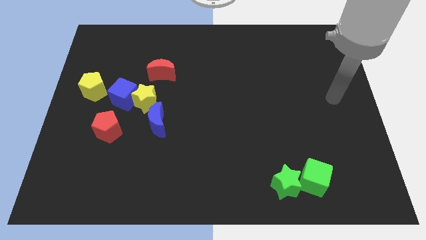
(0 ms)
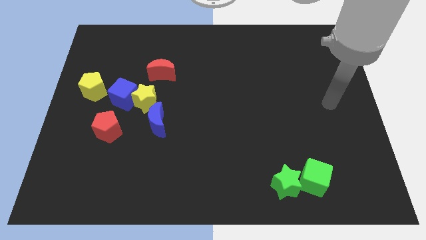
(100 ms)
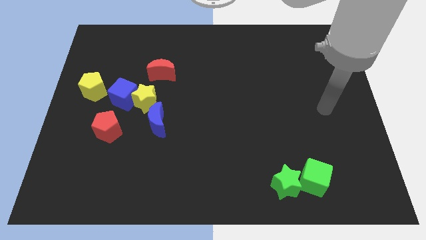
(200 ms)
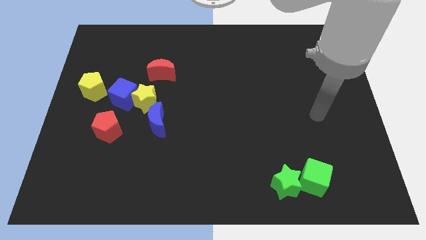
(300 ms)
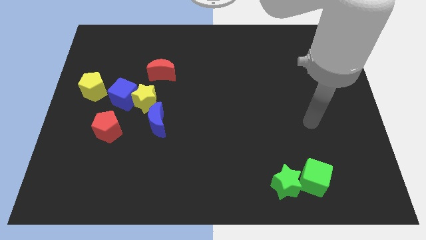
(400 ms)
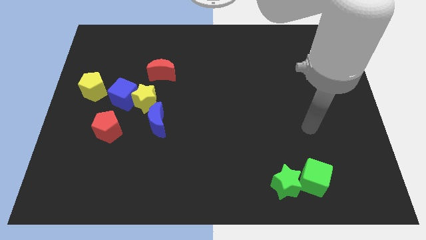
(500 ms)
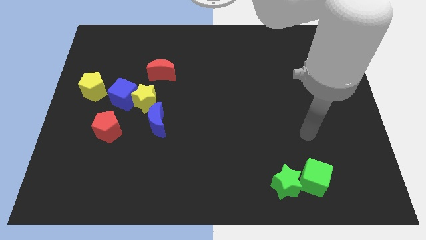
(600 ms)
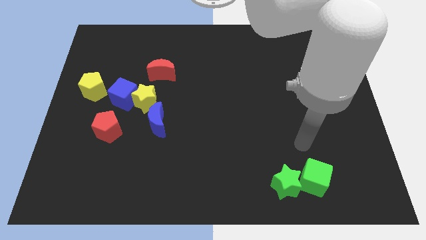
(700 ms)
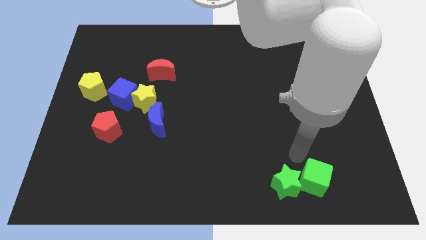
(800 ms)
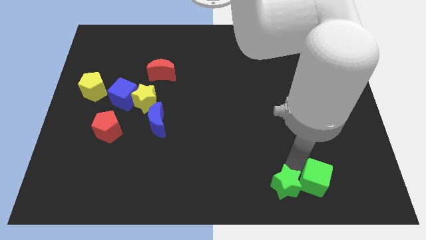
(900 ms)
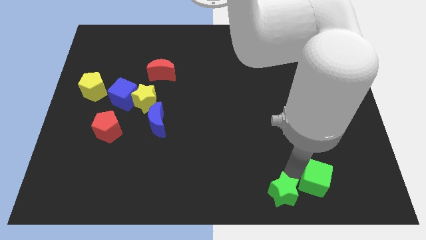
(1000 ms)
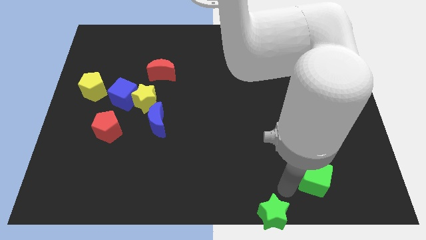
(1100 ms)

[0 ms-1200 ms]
move the green cube away from the green star

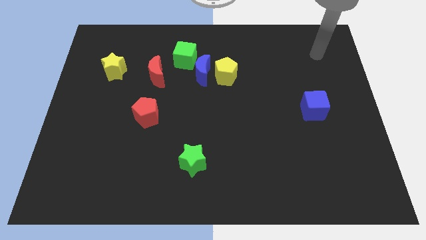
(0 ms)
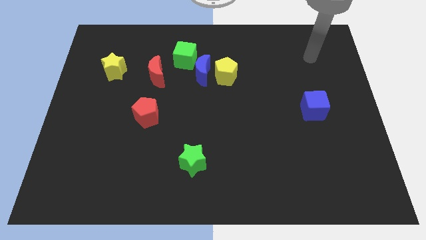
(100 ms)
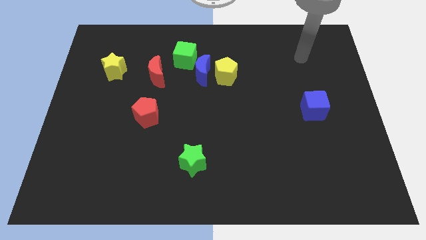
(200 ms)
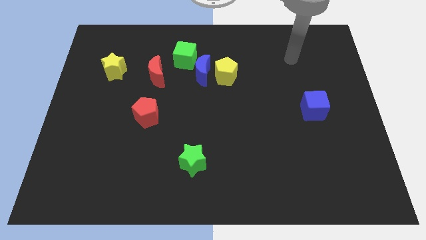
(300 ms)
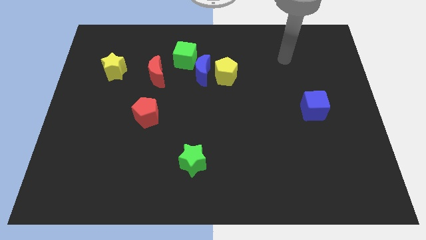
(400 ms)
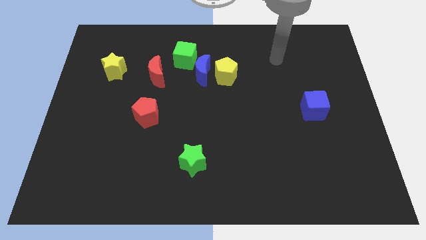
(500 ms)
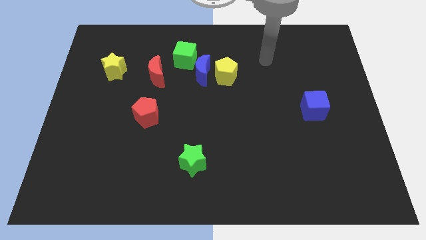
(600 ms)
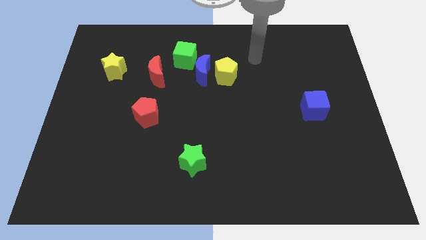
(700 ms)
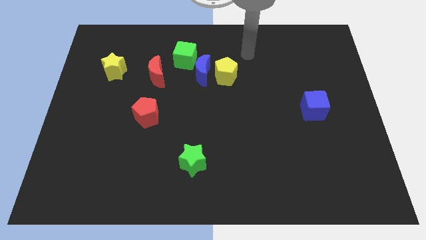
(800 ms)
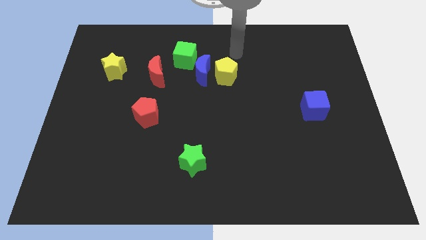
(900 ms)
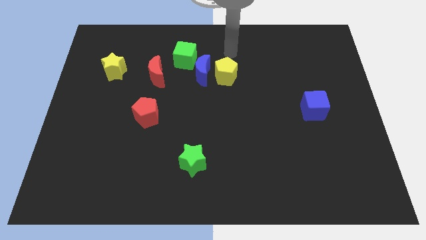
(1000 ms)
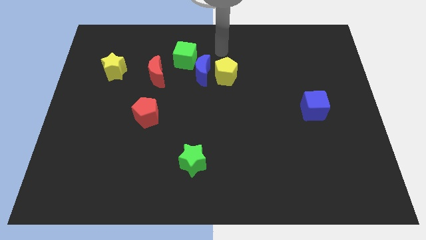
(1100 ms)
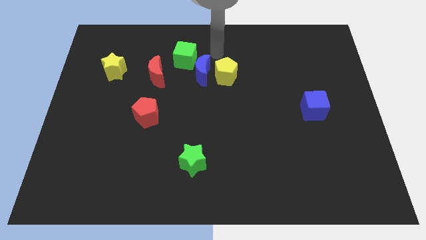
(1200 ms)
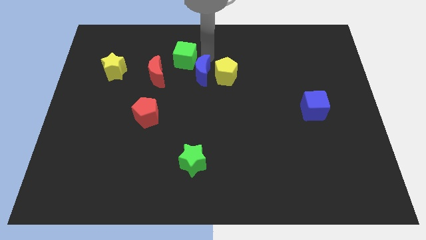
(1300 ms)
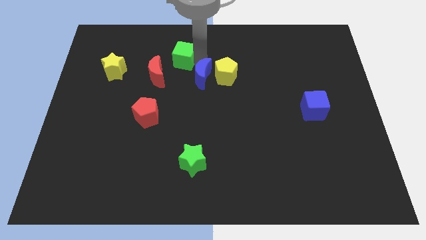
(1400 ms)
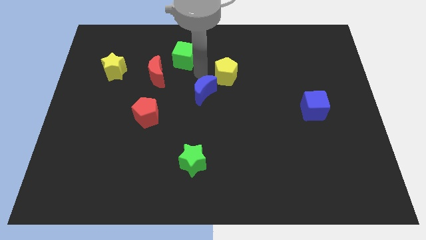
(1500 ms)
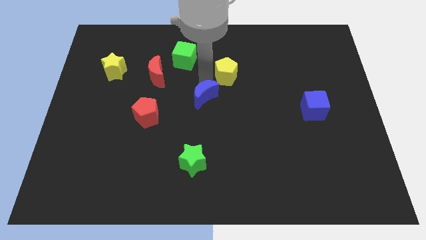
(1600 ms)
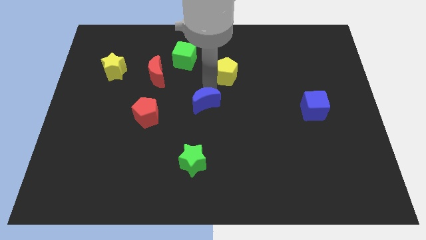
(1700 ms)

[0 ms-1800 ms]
separate the yellow pentagon from the blue moon

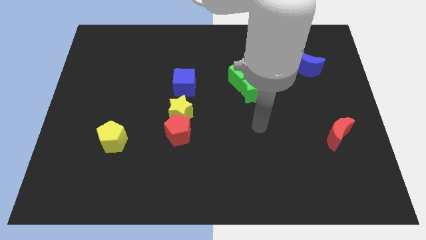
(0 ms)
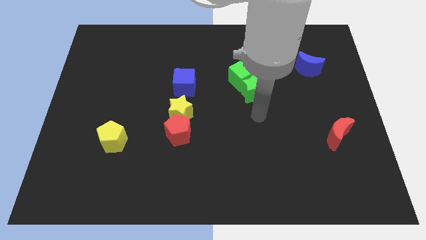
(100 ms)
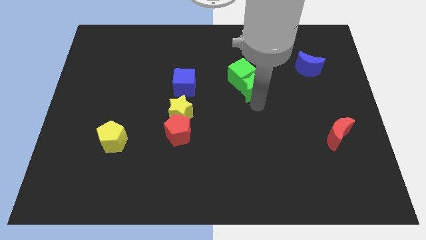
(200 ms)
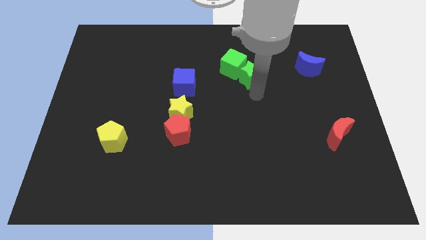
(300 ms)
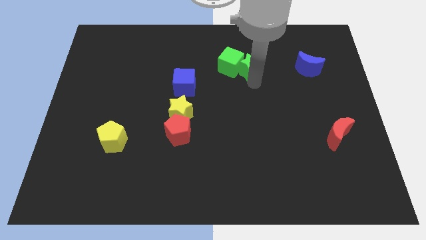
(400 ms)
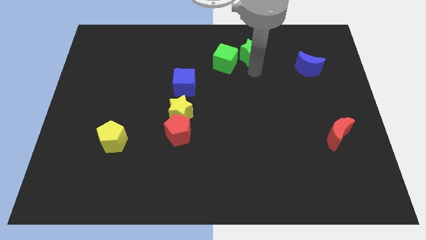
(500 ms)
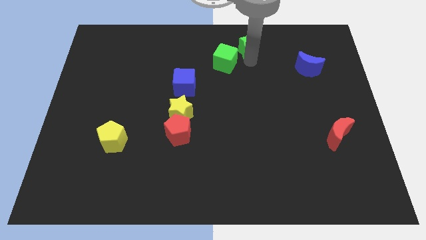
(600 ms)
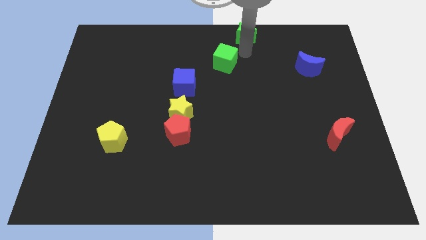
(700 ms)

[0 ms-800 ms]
separate the green cube from the green star

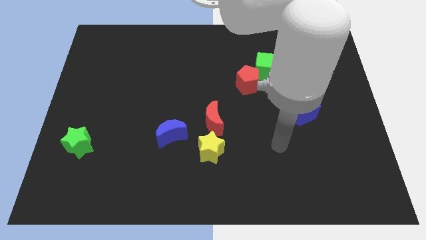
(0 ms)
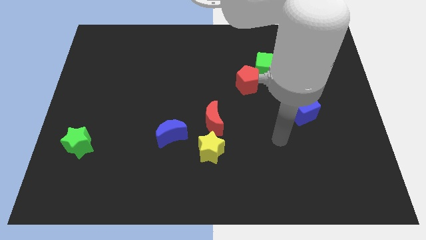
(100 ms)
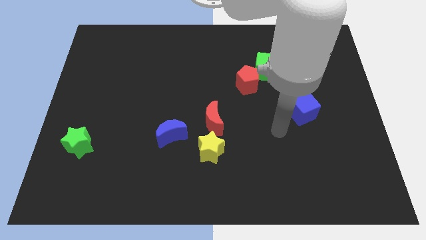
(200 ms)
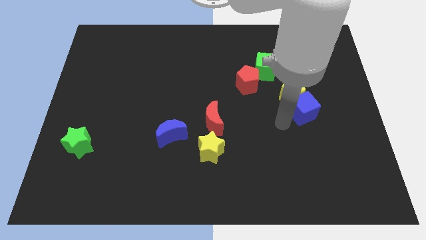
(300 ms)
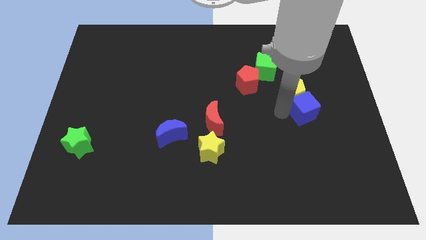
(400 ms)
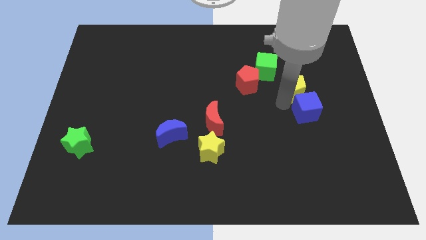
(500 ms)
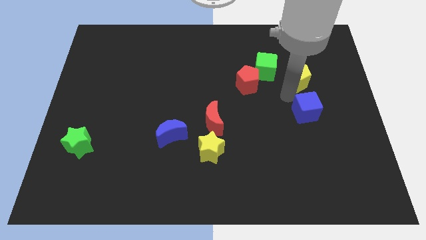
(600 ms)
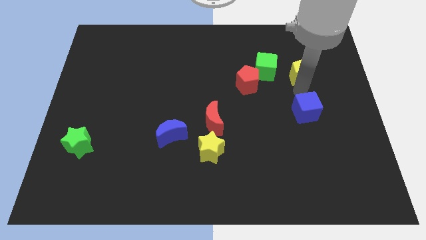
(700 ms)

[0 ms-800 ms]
separate the blue cube from the yellow pentagon

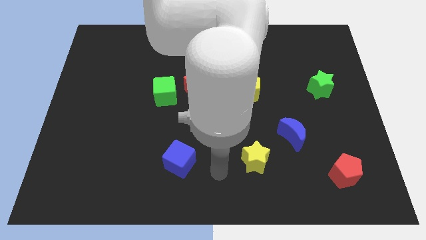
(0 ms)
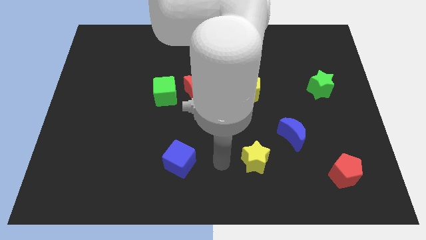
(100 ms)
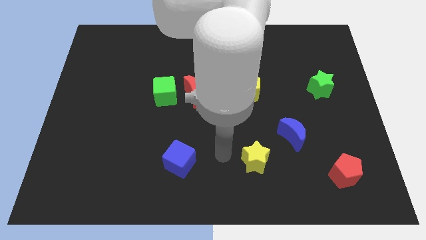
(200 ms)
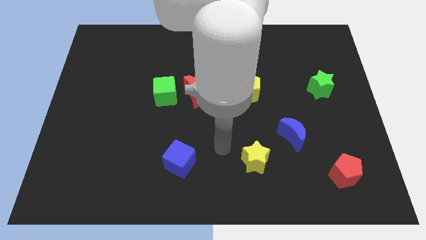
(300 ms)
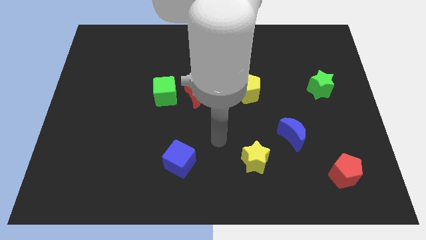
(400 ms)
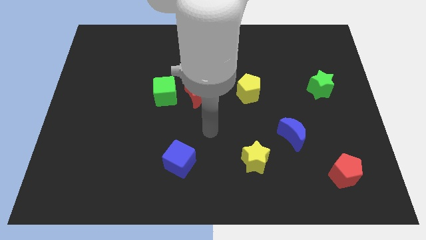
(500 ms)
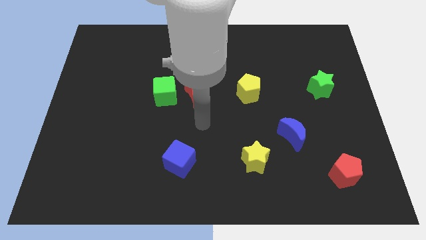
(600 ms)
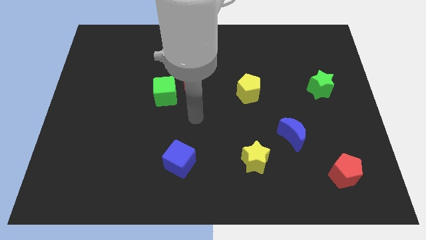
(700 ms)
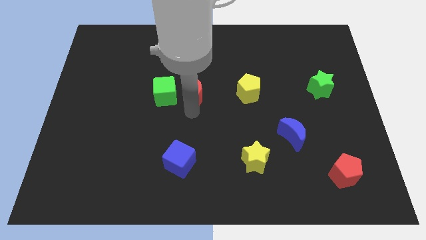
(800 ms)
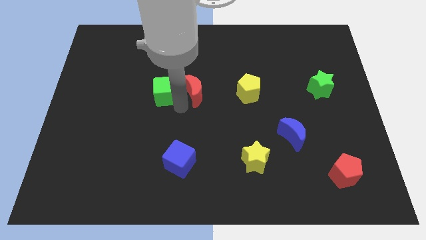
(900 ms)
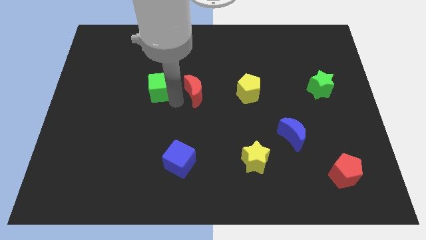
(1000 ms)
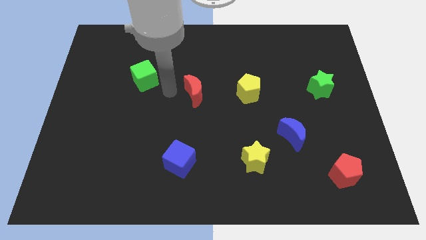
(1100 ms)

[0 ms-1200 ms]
separate the red moon from the green cube

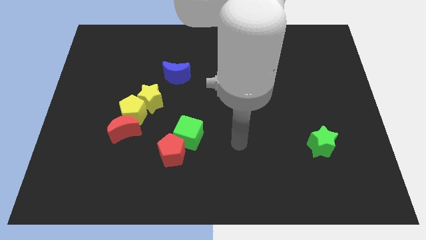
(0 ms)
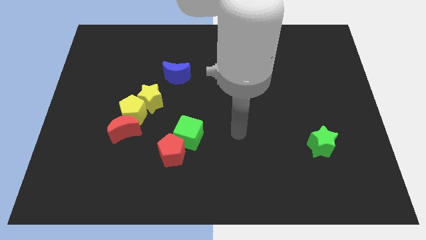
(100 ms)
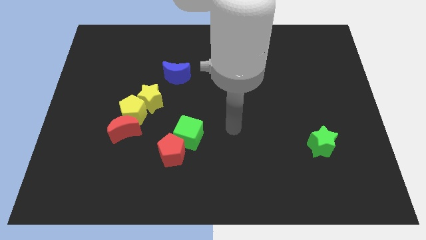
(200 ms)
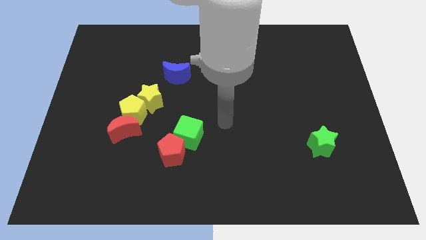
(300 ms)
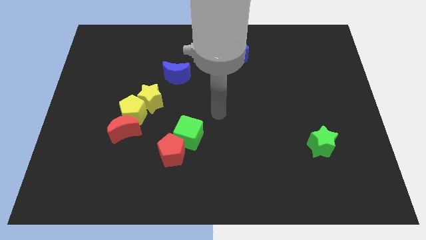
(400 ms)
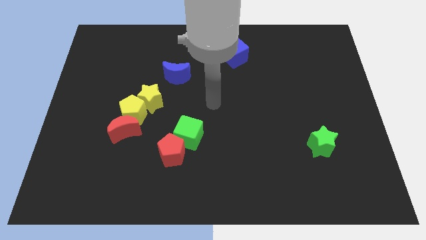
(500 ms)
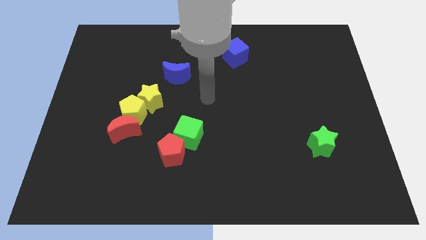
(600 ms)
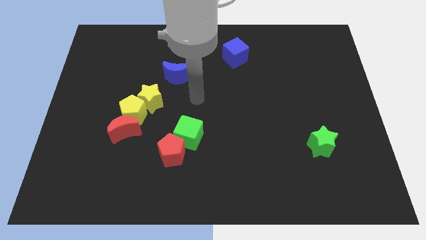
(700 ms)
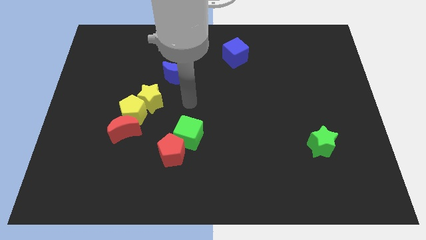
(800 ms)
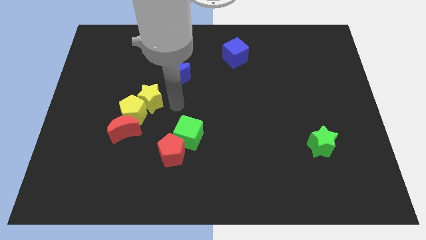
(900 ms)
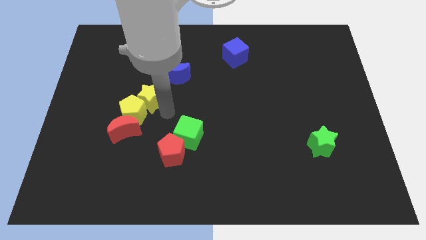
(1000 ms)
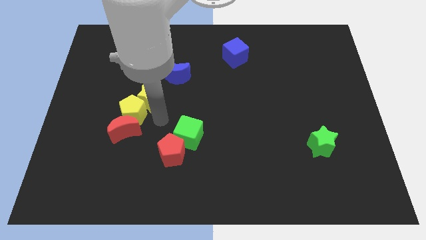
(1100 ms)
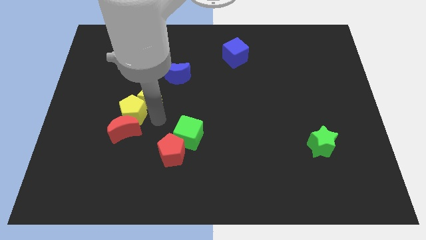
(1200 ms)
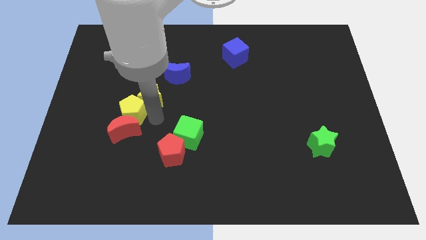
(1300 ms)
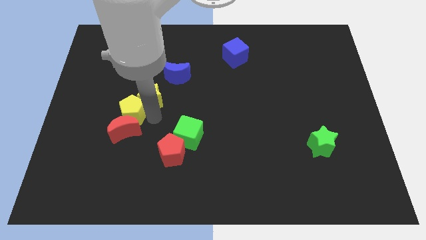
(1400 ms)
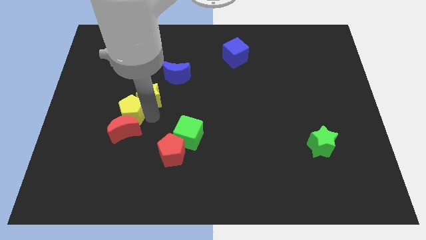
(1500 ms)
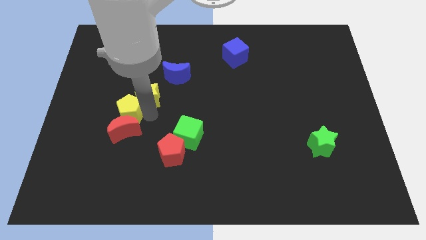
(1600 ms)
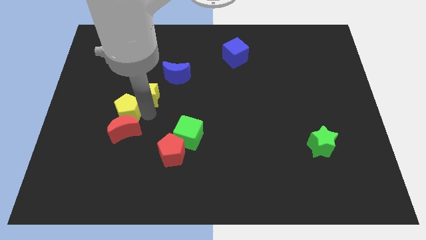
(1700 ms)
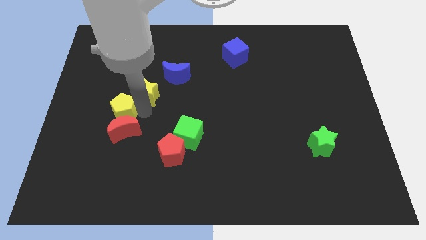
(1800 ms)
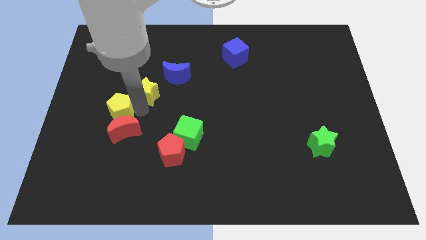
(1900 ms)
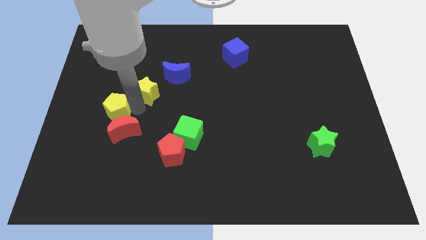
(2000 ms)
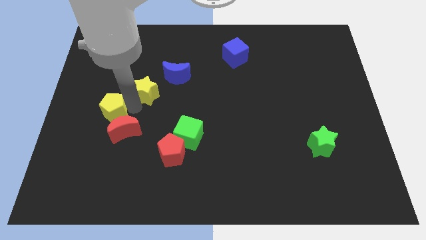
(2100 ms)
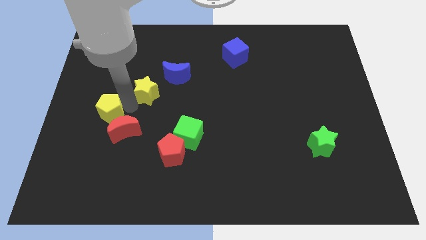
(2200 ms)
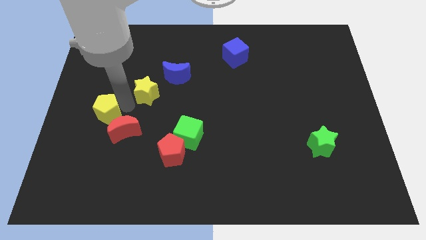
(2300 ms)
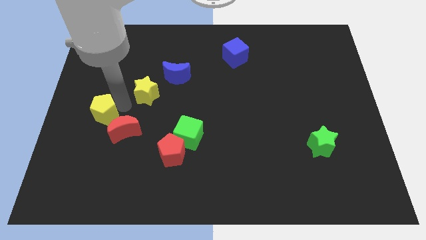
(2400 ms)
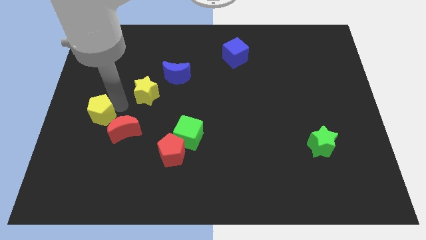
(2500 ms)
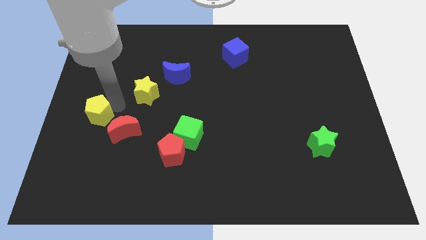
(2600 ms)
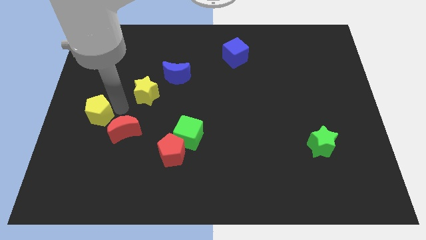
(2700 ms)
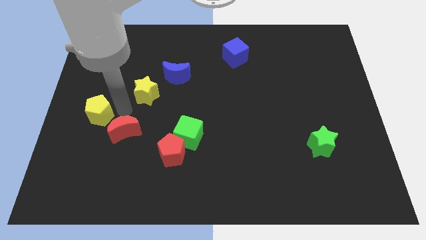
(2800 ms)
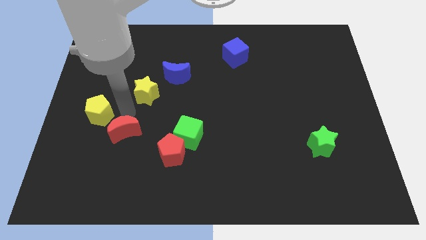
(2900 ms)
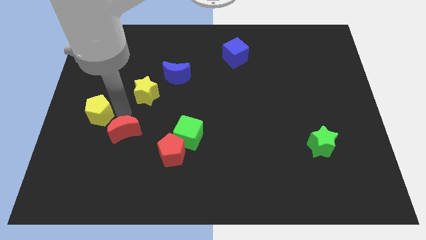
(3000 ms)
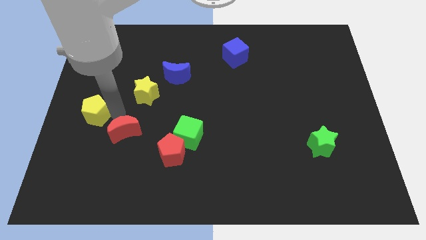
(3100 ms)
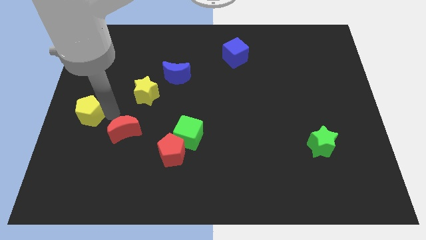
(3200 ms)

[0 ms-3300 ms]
move the yellow pentagon away from the red moon and yellow star

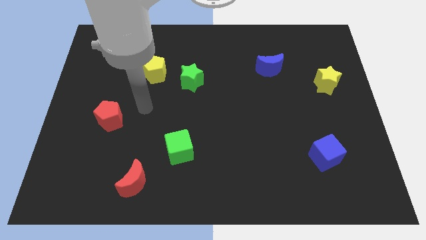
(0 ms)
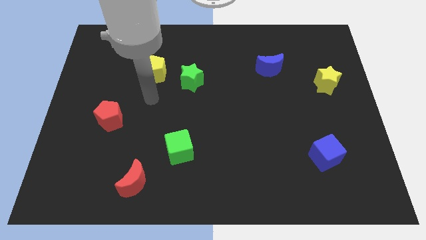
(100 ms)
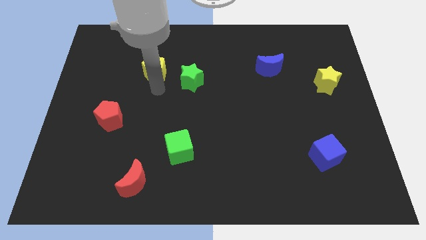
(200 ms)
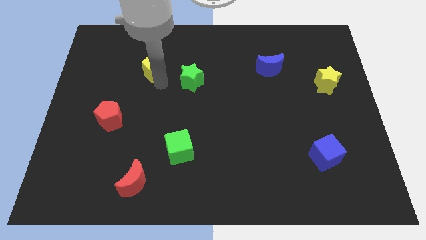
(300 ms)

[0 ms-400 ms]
pull the green star apart from the yellow pentagon
